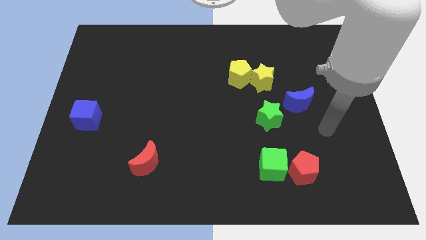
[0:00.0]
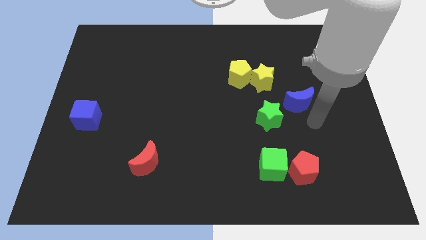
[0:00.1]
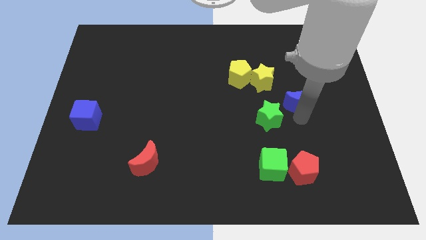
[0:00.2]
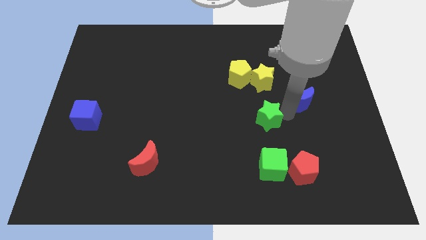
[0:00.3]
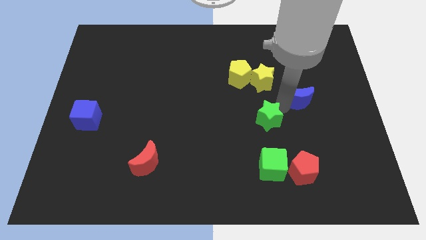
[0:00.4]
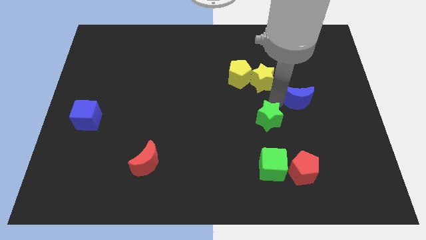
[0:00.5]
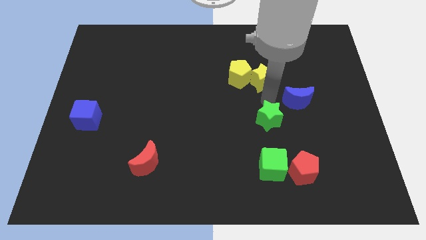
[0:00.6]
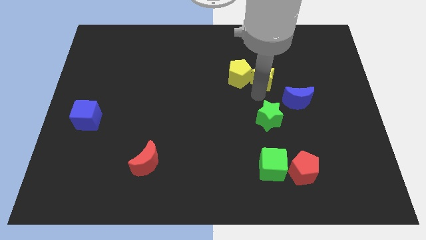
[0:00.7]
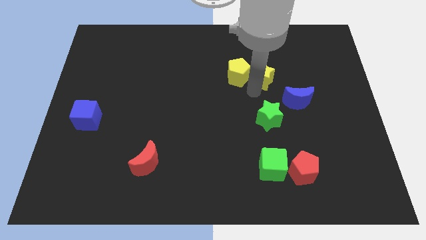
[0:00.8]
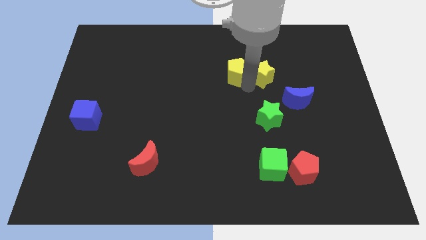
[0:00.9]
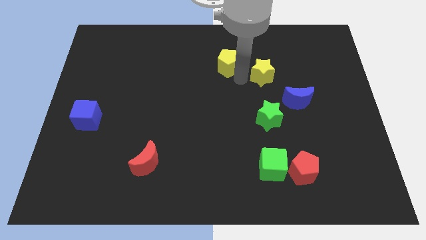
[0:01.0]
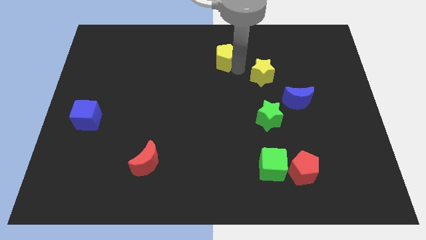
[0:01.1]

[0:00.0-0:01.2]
move the yellow star away from the yellow pentagon

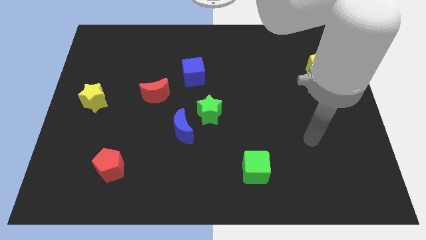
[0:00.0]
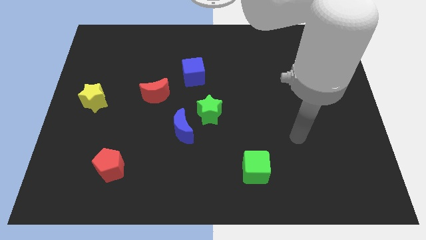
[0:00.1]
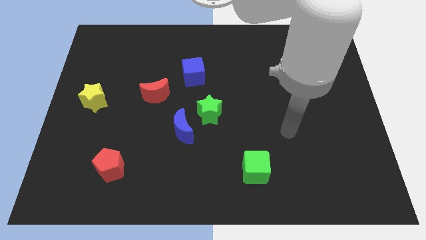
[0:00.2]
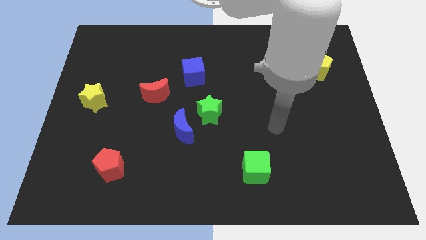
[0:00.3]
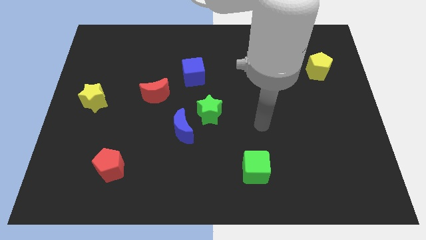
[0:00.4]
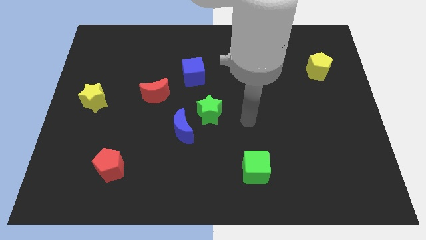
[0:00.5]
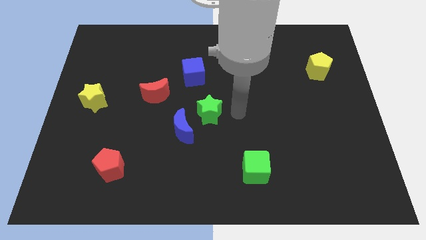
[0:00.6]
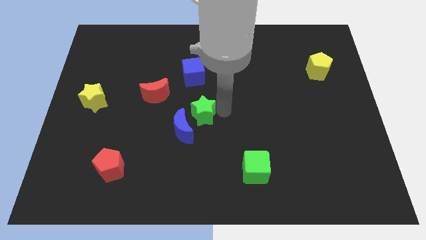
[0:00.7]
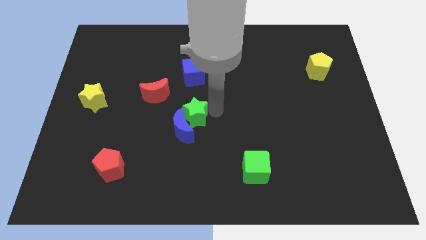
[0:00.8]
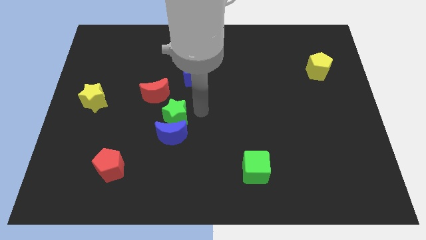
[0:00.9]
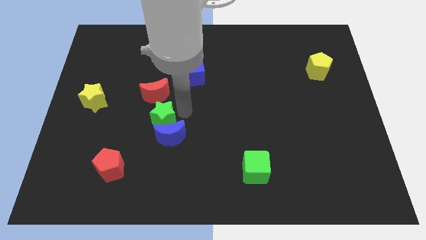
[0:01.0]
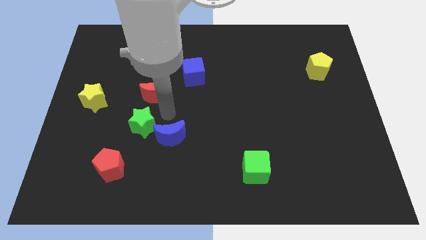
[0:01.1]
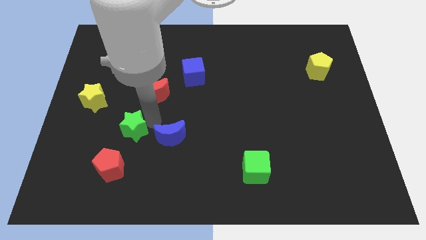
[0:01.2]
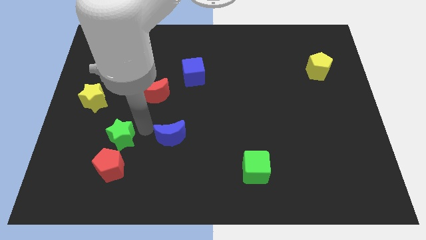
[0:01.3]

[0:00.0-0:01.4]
move the blue moon away from the green star

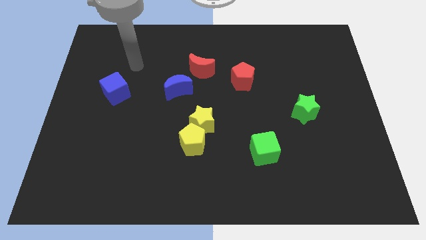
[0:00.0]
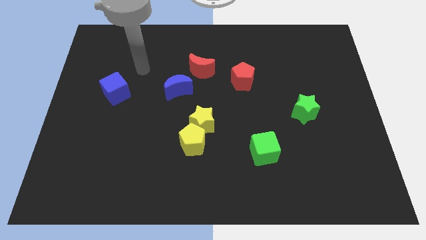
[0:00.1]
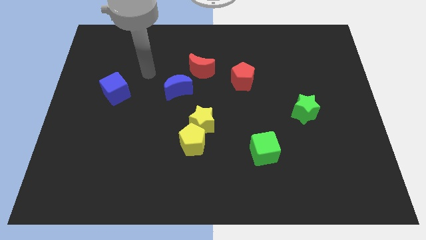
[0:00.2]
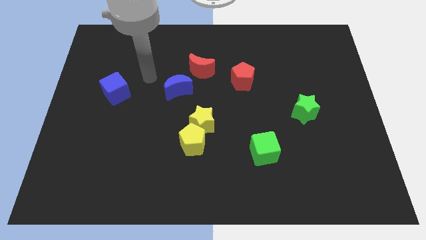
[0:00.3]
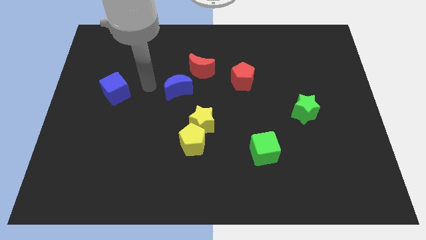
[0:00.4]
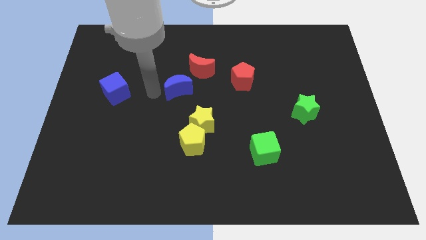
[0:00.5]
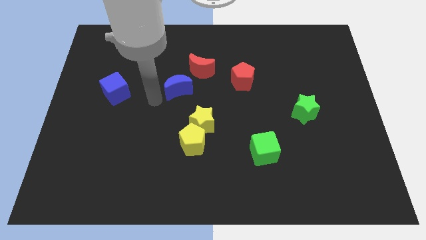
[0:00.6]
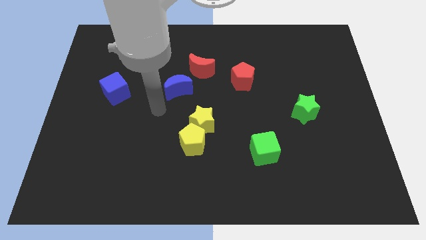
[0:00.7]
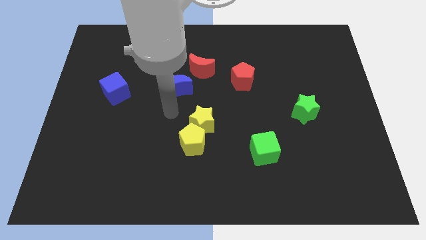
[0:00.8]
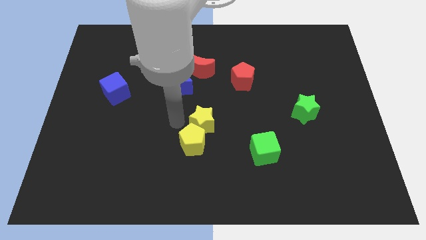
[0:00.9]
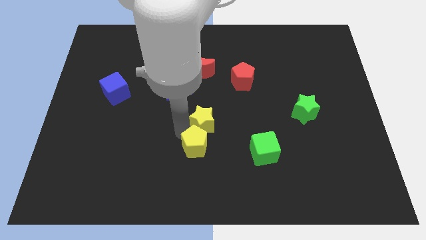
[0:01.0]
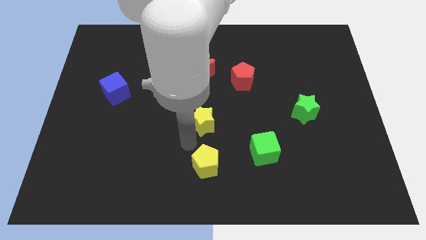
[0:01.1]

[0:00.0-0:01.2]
pull the yellow star apart from the yellow pentagon

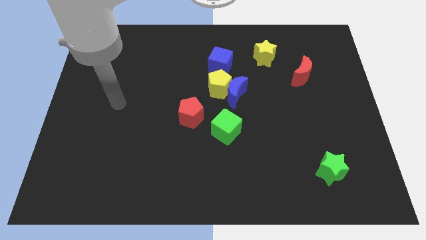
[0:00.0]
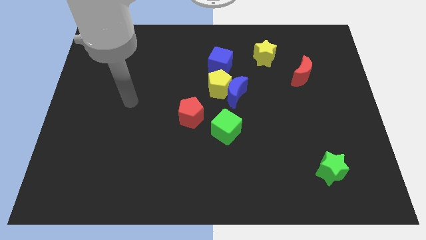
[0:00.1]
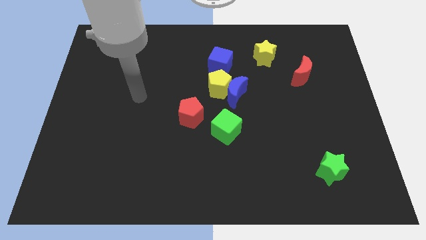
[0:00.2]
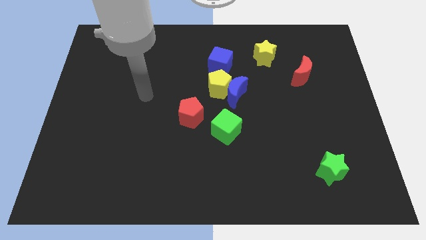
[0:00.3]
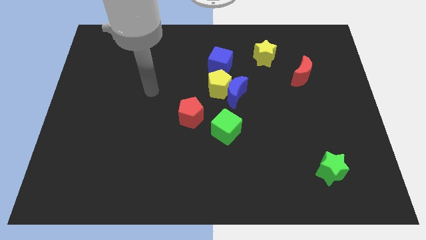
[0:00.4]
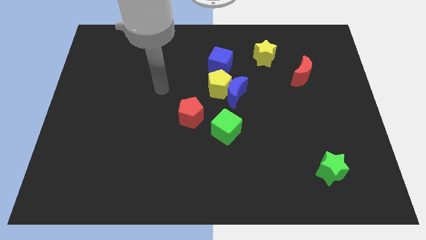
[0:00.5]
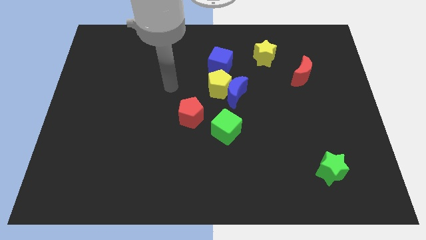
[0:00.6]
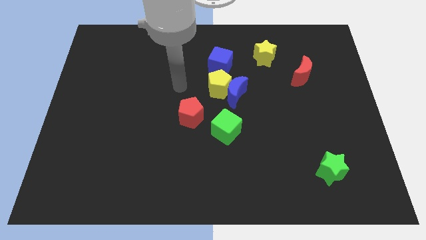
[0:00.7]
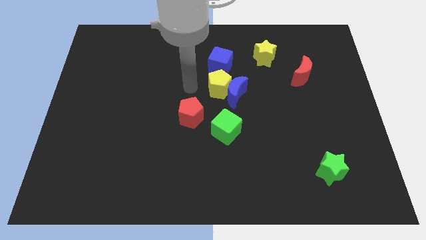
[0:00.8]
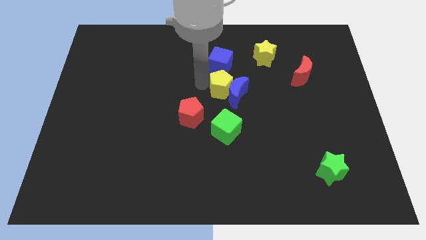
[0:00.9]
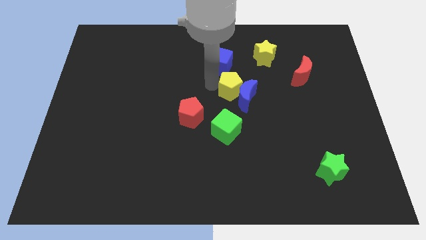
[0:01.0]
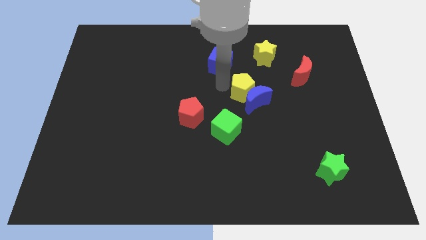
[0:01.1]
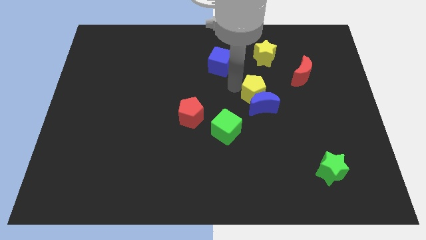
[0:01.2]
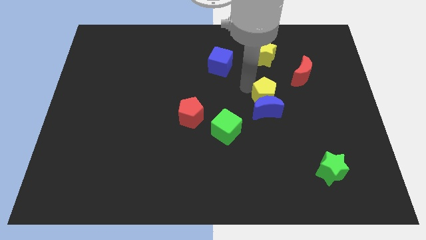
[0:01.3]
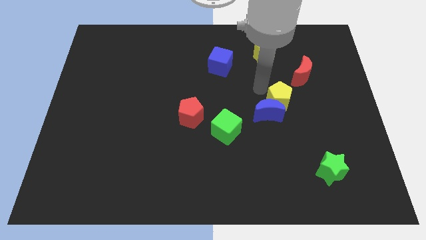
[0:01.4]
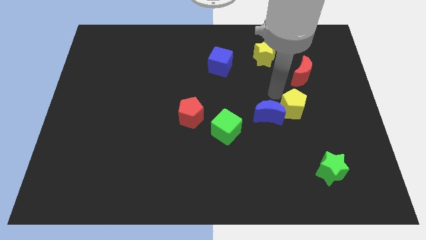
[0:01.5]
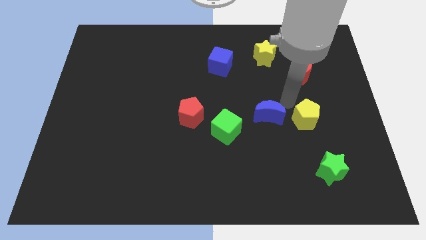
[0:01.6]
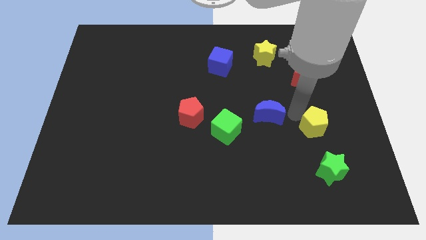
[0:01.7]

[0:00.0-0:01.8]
pull the blue moon apart from the yellow pentagon

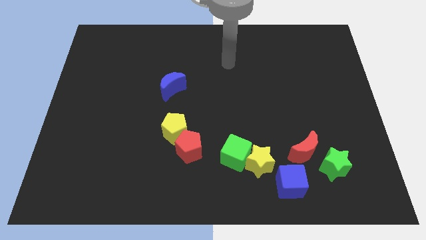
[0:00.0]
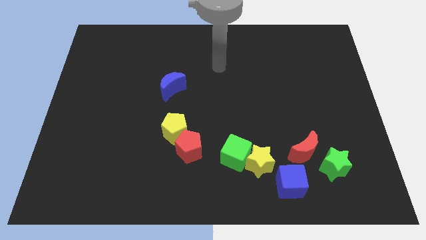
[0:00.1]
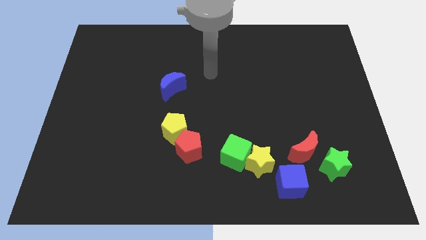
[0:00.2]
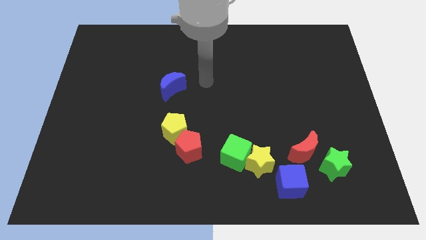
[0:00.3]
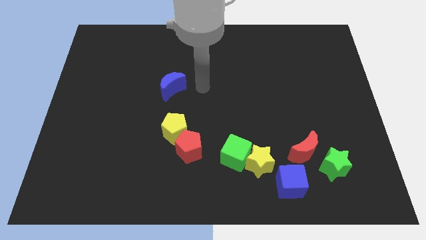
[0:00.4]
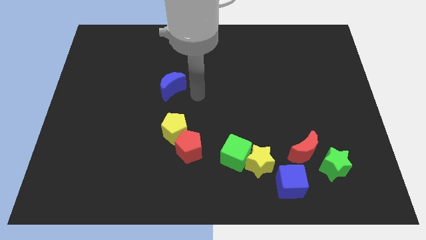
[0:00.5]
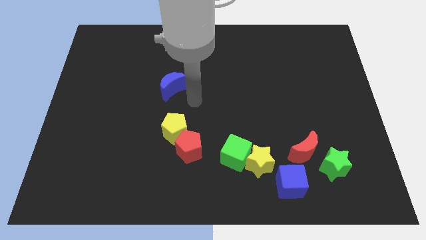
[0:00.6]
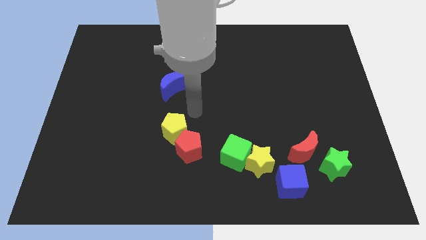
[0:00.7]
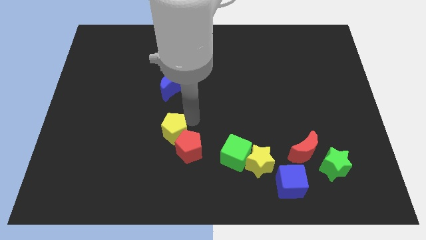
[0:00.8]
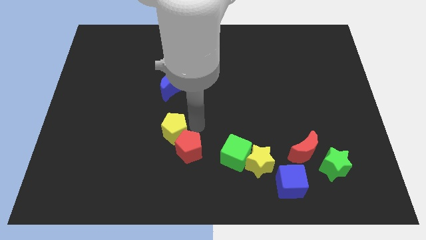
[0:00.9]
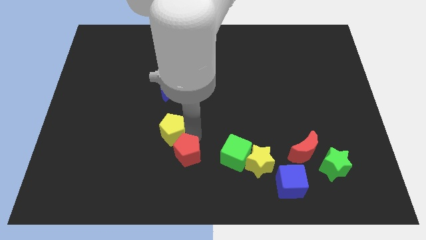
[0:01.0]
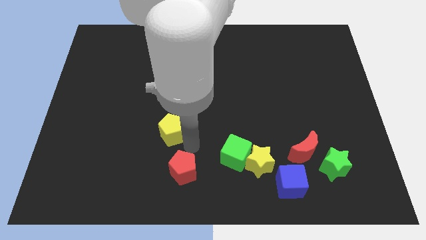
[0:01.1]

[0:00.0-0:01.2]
pull the yellow pentagon apart from the red pentagon

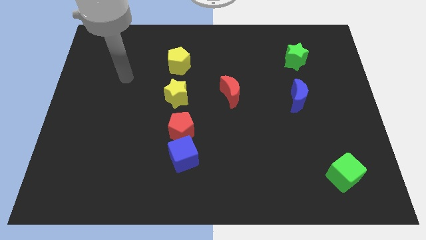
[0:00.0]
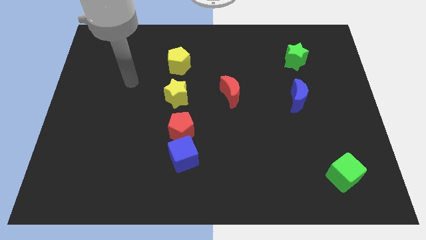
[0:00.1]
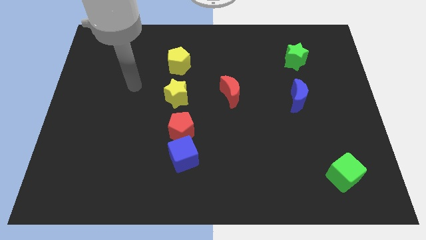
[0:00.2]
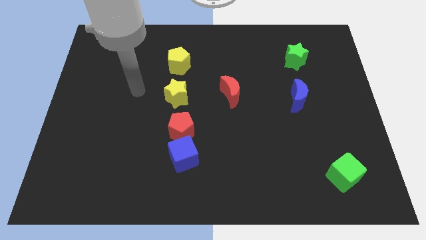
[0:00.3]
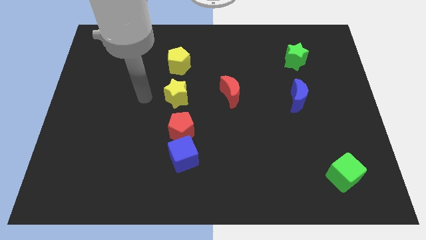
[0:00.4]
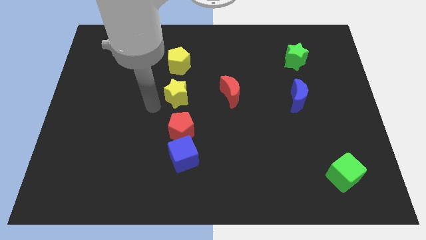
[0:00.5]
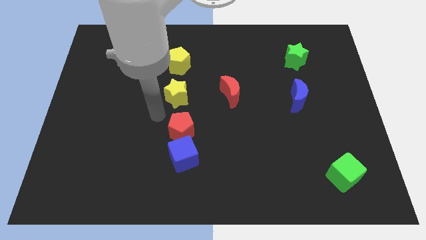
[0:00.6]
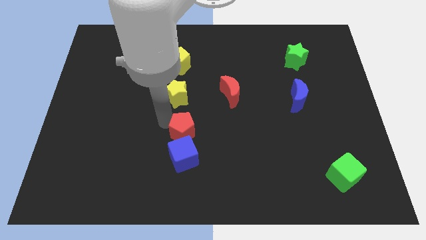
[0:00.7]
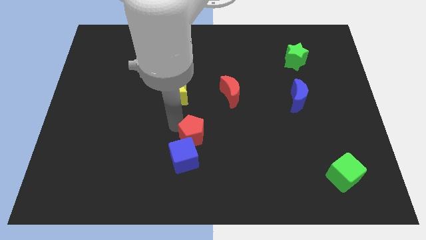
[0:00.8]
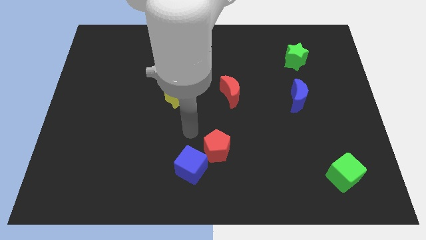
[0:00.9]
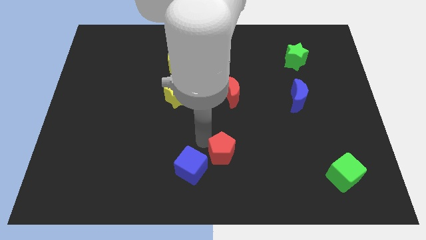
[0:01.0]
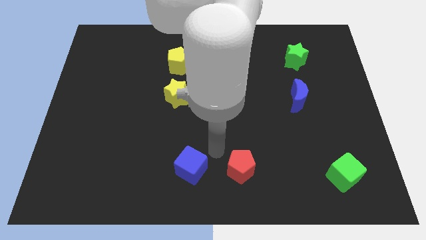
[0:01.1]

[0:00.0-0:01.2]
pull the blue cube apart from the red pentagon

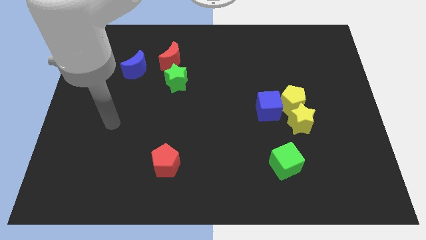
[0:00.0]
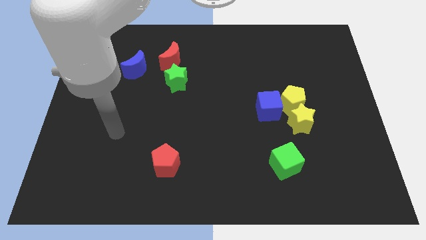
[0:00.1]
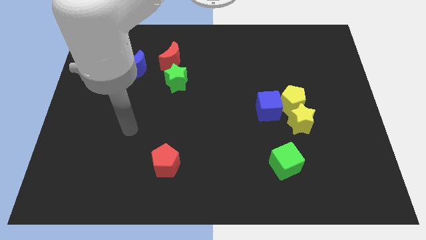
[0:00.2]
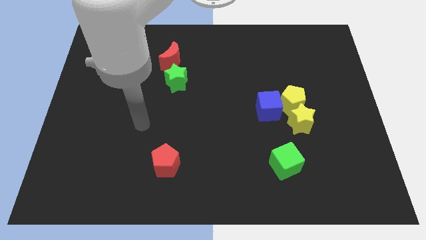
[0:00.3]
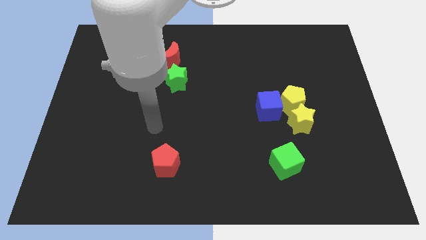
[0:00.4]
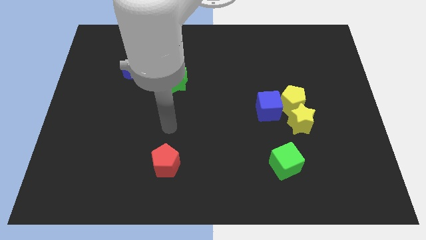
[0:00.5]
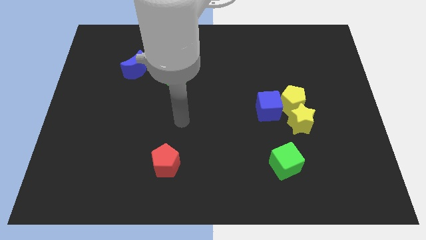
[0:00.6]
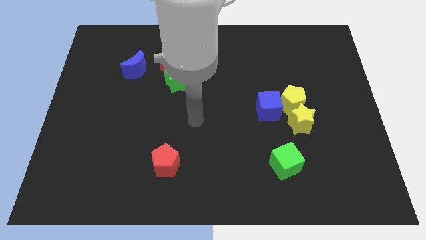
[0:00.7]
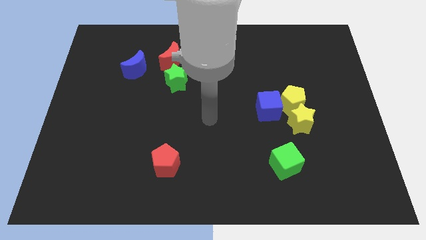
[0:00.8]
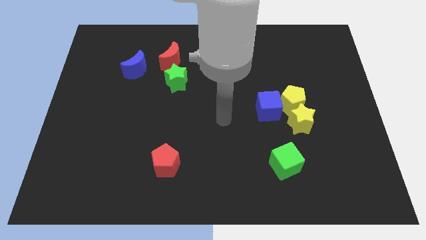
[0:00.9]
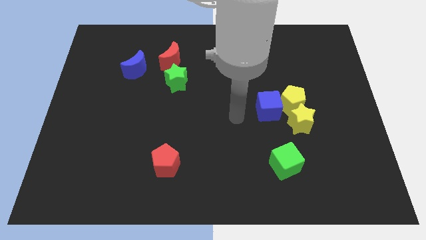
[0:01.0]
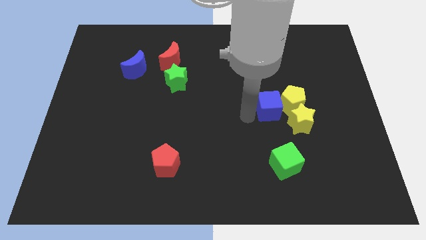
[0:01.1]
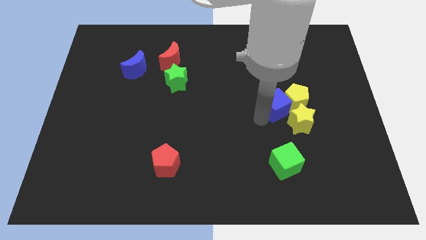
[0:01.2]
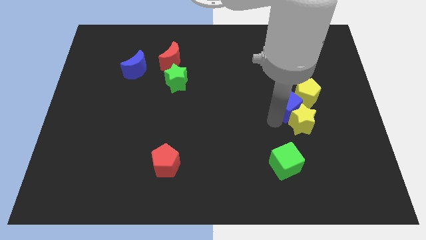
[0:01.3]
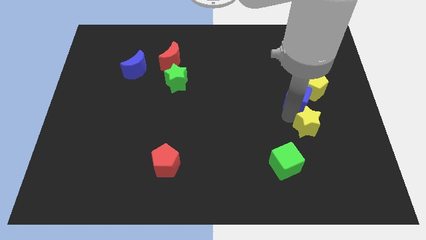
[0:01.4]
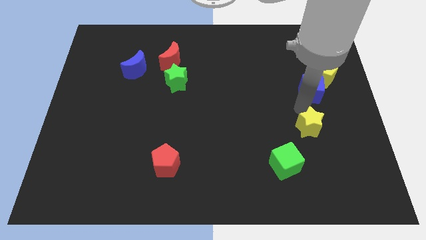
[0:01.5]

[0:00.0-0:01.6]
pull the yellow pentagon apart from the yellow star and blue cube
